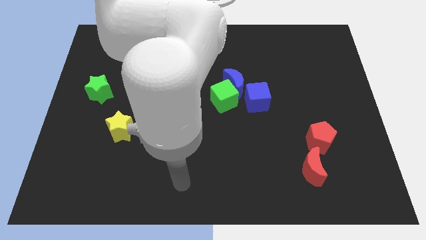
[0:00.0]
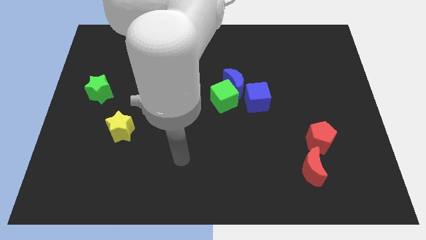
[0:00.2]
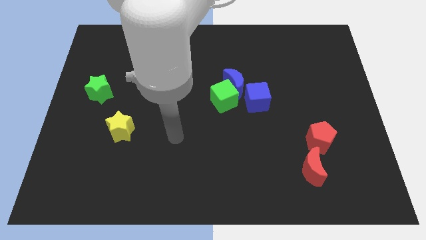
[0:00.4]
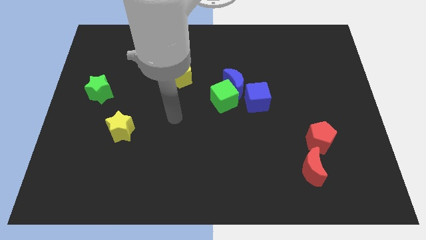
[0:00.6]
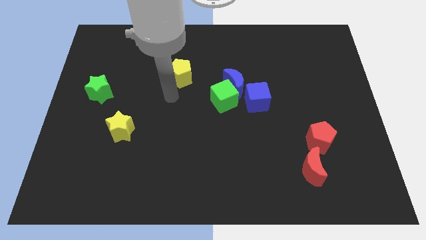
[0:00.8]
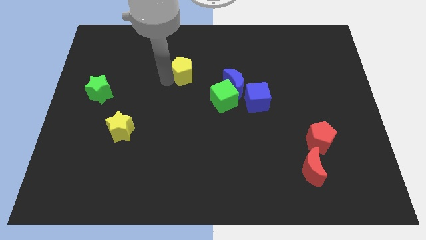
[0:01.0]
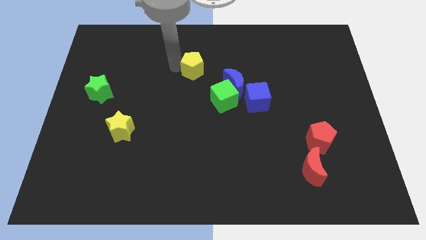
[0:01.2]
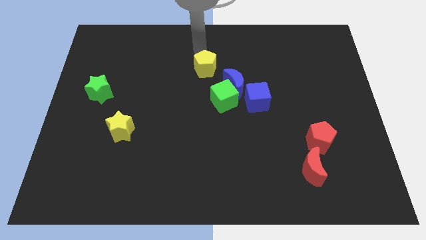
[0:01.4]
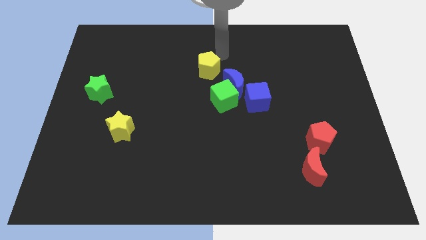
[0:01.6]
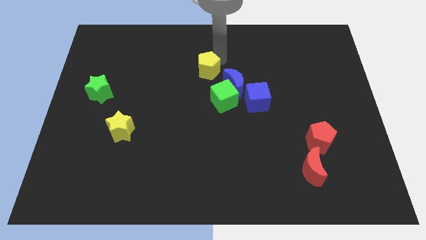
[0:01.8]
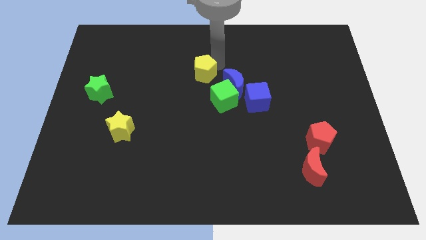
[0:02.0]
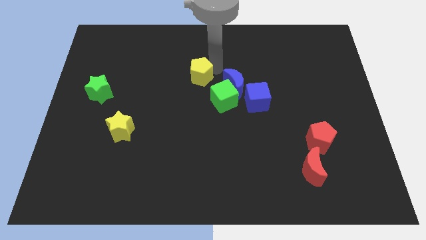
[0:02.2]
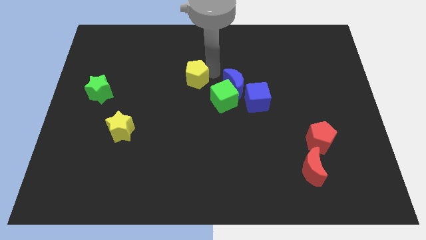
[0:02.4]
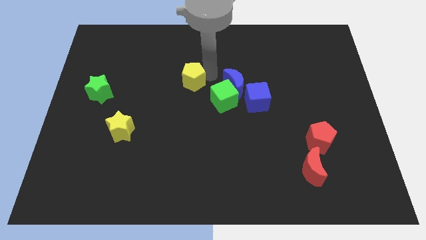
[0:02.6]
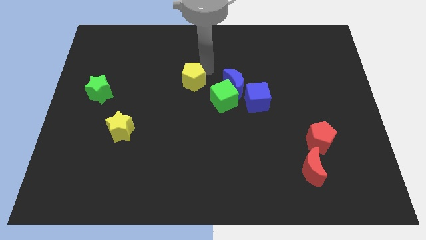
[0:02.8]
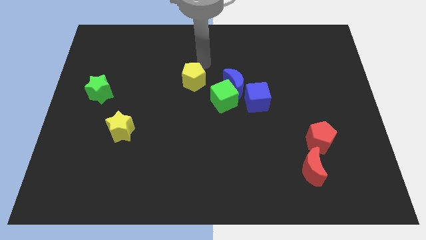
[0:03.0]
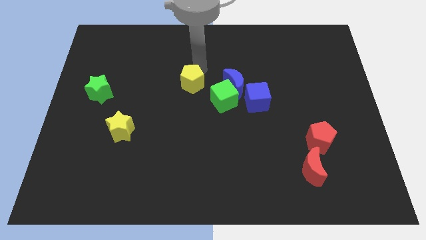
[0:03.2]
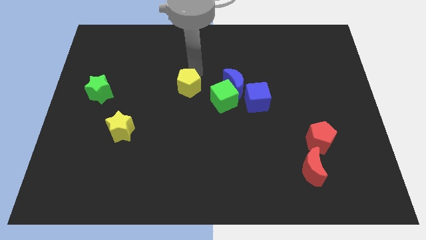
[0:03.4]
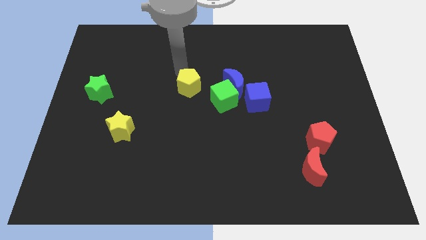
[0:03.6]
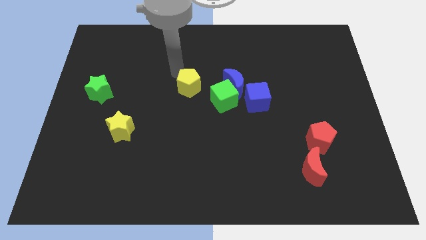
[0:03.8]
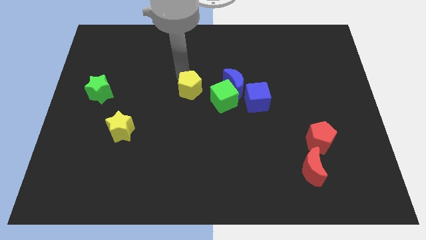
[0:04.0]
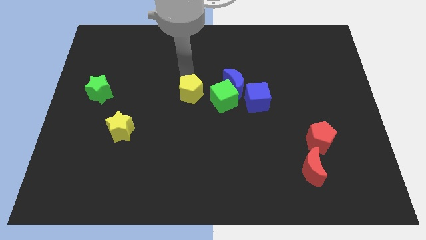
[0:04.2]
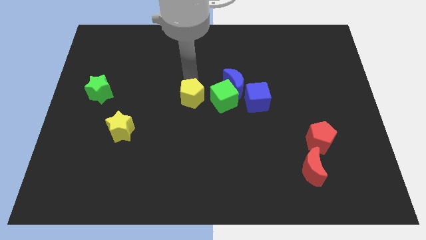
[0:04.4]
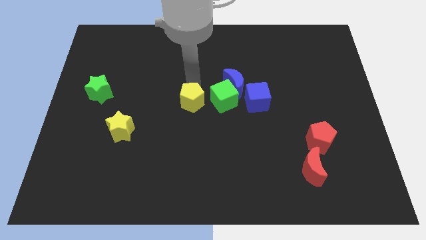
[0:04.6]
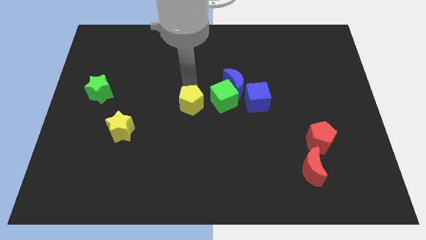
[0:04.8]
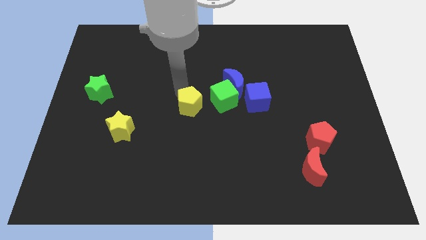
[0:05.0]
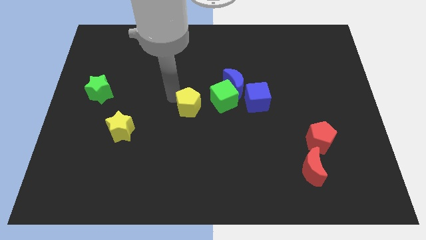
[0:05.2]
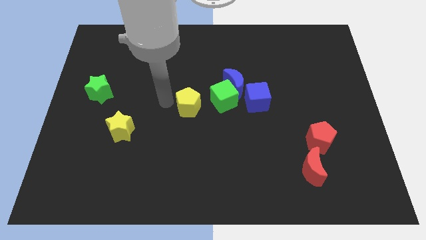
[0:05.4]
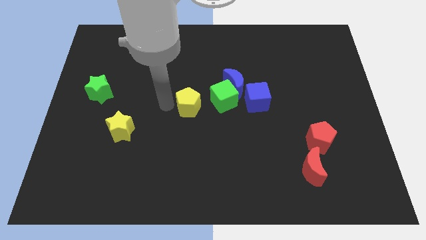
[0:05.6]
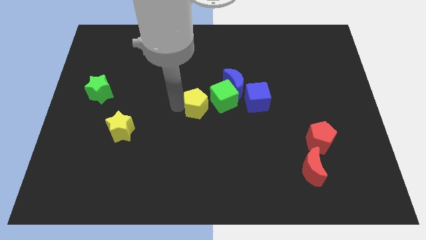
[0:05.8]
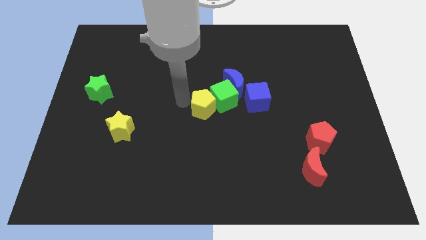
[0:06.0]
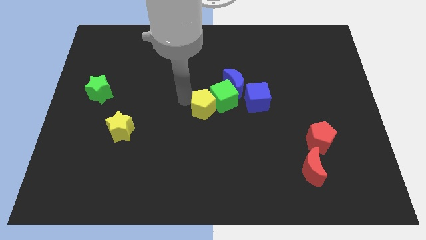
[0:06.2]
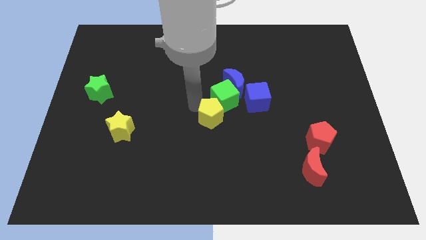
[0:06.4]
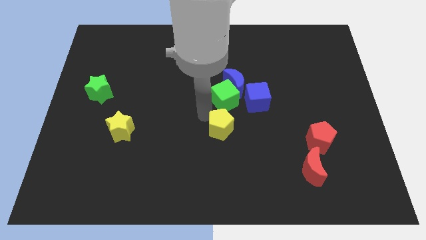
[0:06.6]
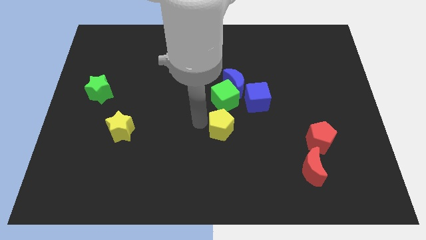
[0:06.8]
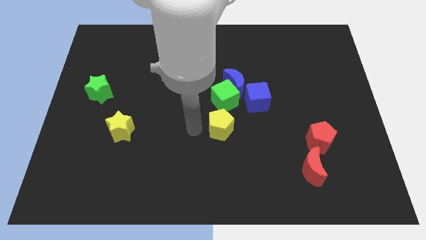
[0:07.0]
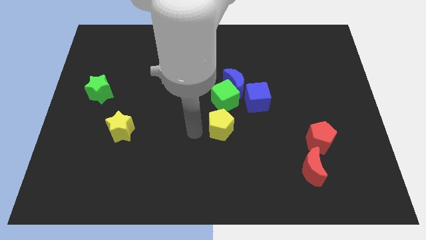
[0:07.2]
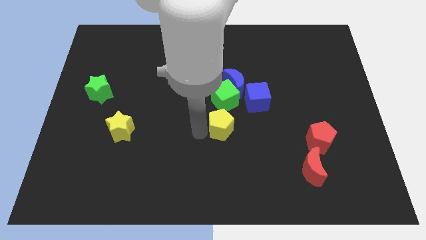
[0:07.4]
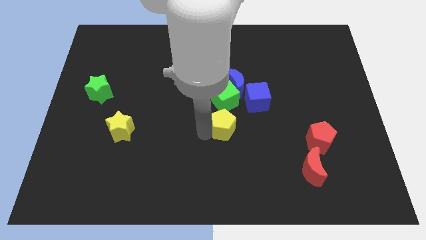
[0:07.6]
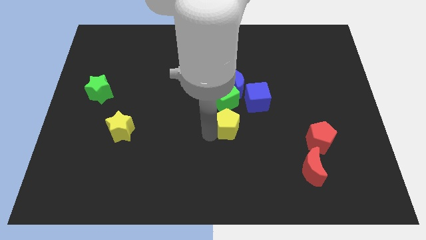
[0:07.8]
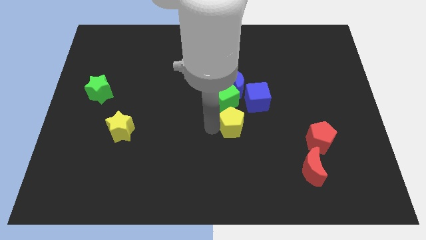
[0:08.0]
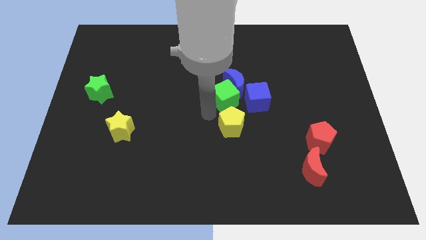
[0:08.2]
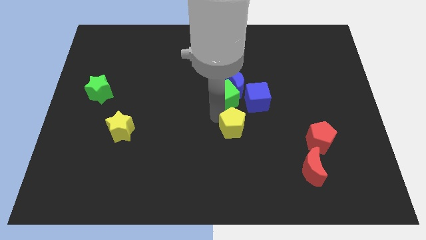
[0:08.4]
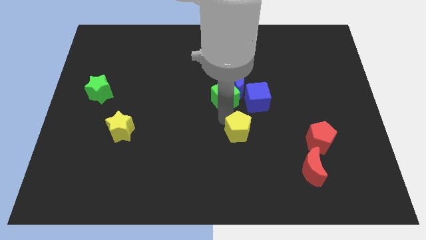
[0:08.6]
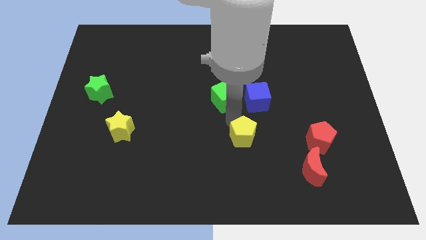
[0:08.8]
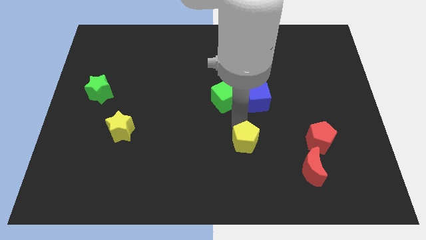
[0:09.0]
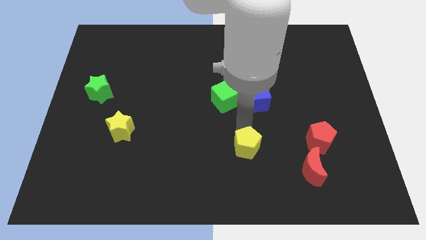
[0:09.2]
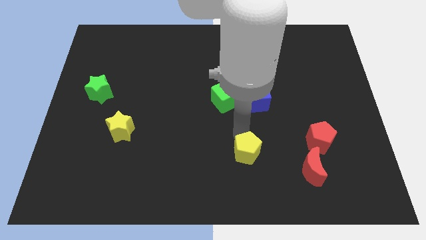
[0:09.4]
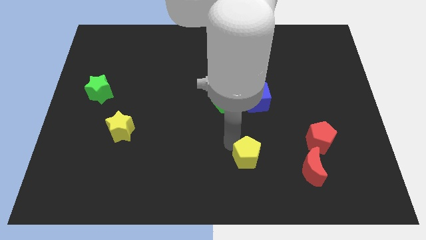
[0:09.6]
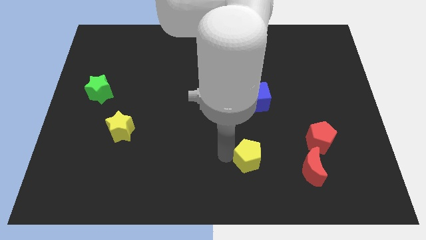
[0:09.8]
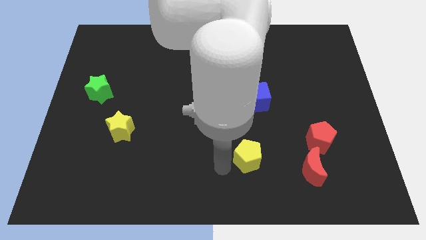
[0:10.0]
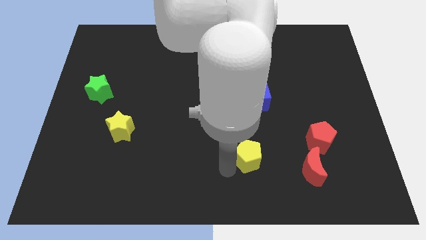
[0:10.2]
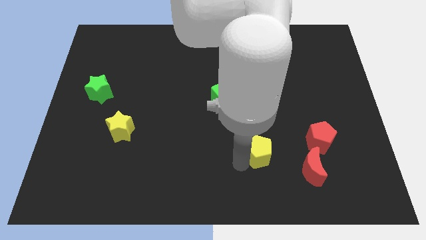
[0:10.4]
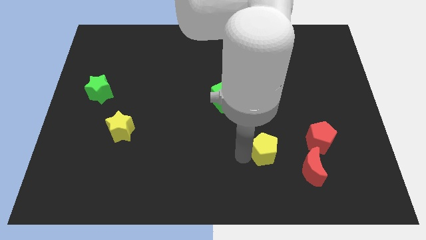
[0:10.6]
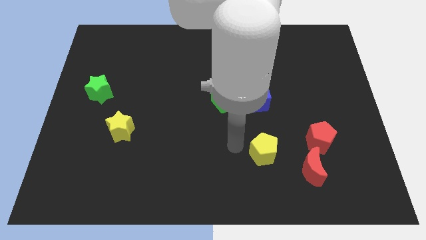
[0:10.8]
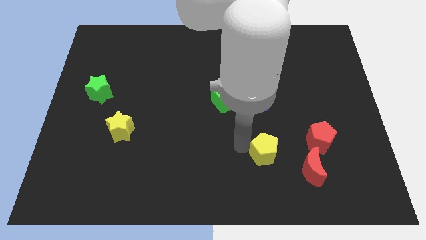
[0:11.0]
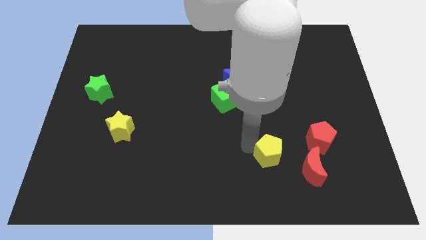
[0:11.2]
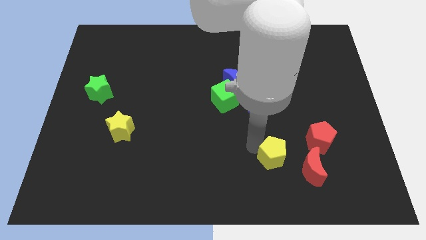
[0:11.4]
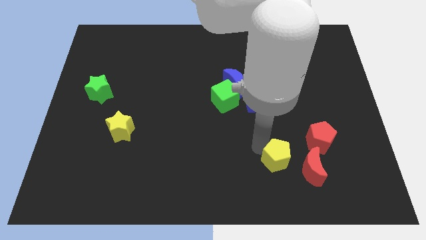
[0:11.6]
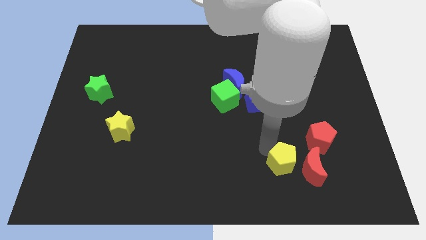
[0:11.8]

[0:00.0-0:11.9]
push the yellow pentagon to the red moon

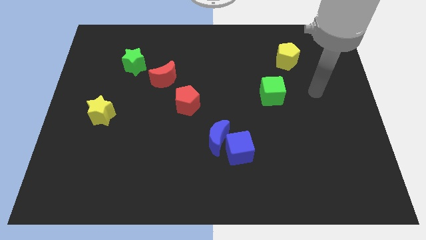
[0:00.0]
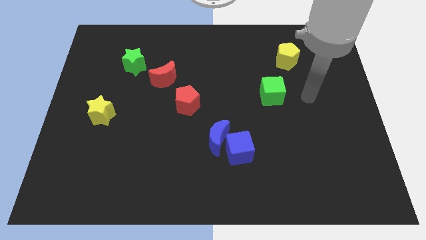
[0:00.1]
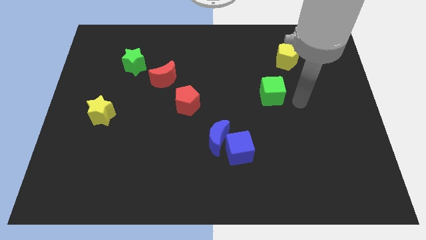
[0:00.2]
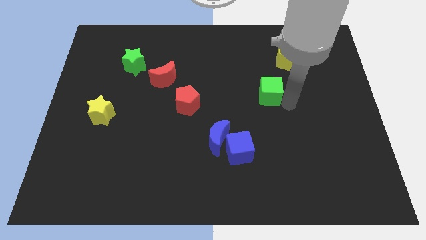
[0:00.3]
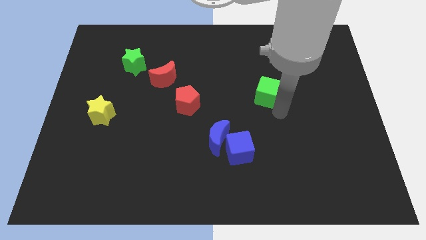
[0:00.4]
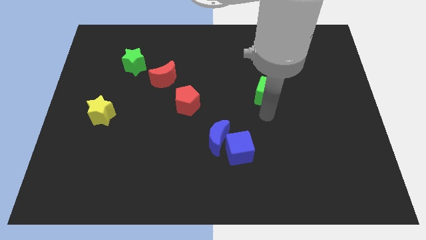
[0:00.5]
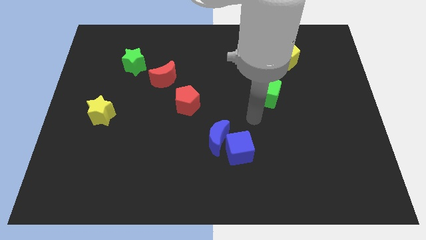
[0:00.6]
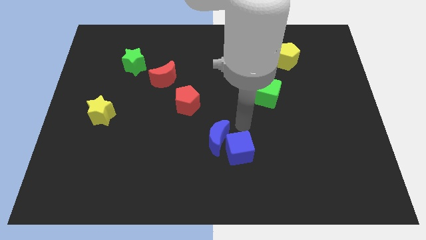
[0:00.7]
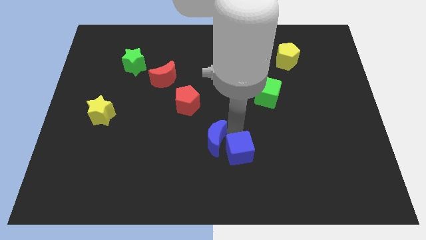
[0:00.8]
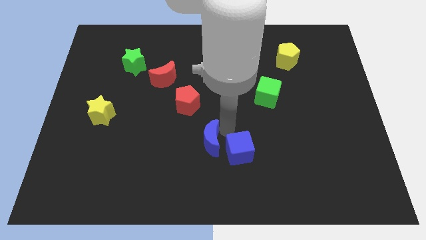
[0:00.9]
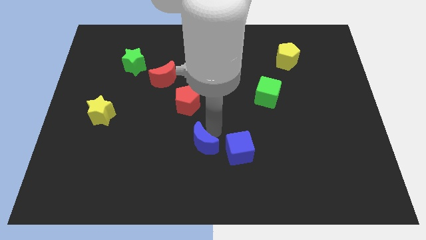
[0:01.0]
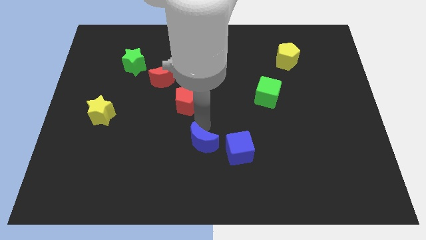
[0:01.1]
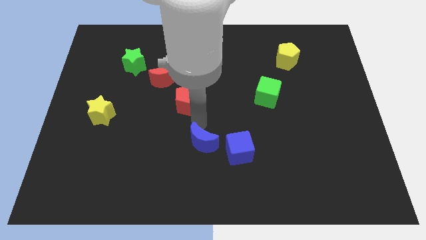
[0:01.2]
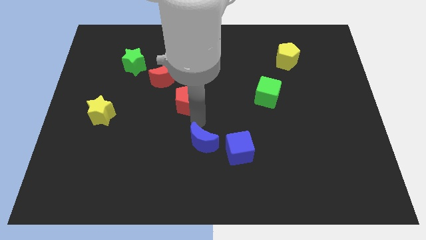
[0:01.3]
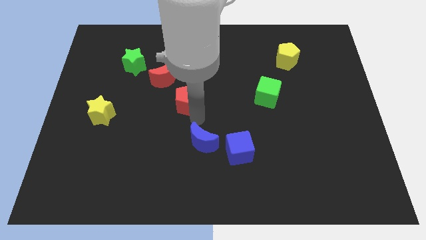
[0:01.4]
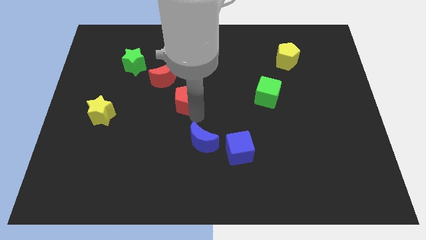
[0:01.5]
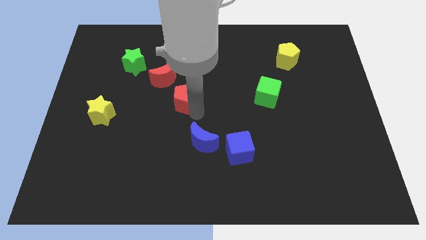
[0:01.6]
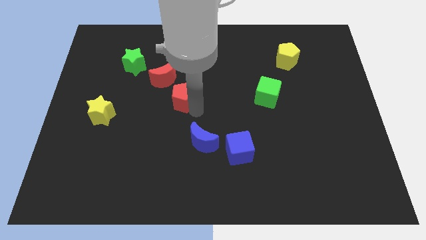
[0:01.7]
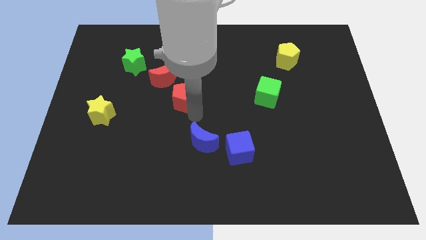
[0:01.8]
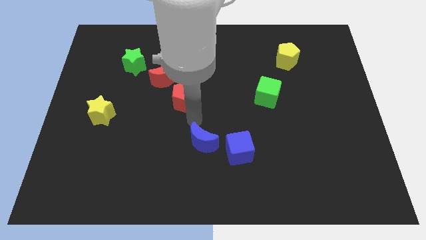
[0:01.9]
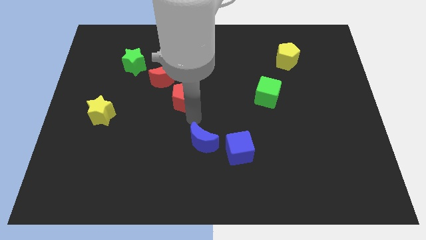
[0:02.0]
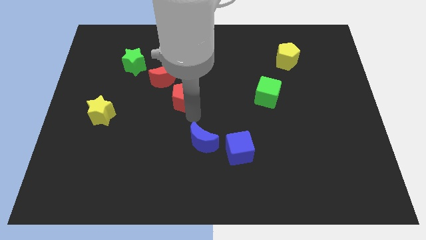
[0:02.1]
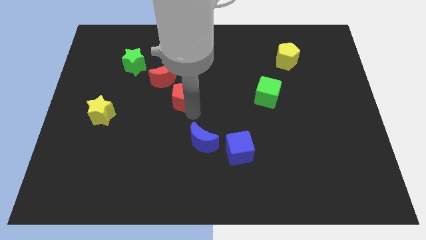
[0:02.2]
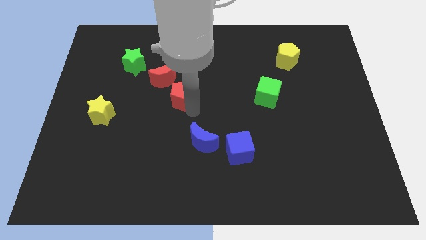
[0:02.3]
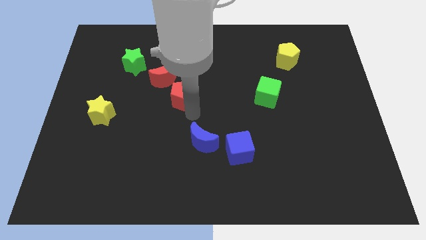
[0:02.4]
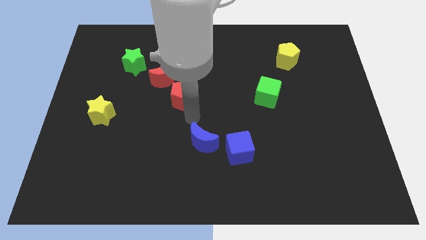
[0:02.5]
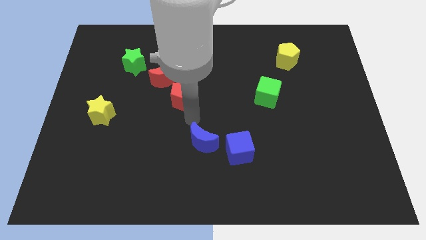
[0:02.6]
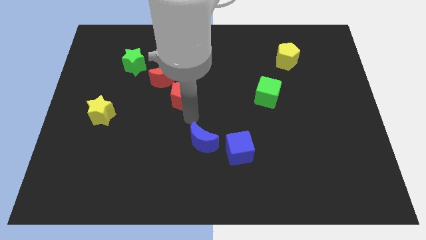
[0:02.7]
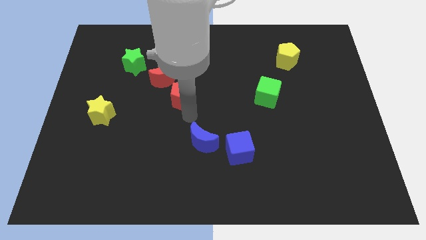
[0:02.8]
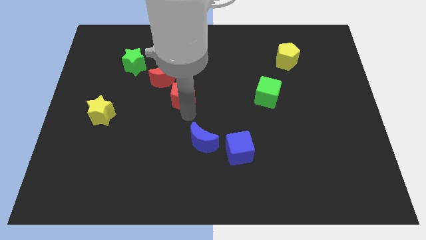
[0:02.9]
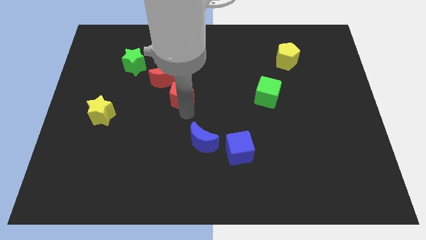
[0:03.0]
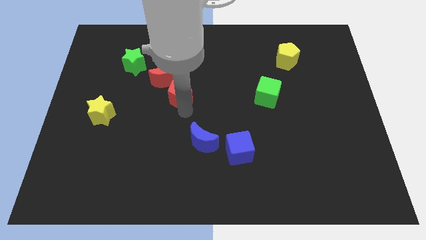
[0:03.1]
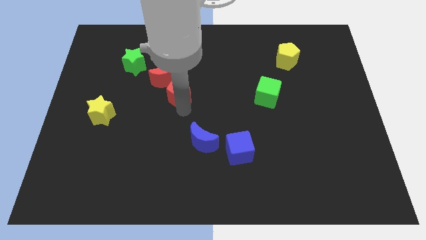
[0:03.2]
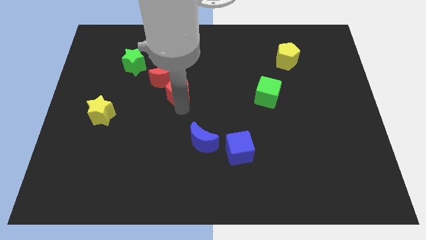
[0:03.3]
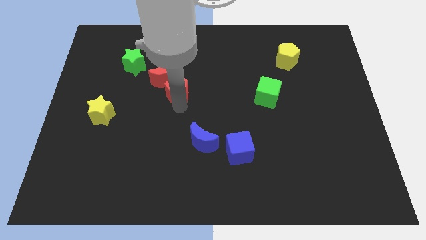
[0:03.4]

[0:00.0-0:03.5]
slide the red pentagon next to the red moon
